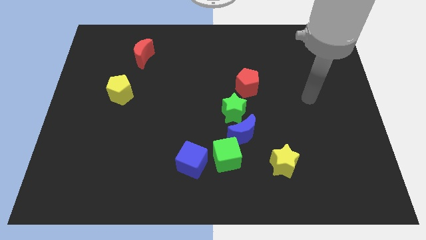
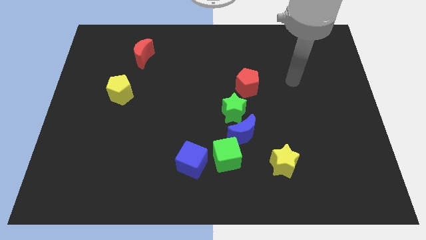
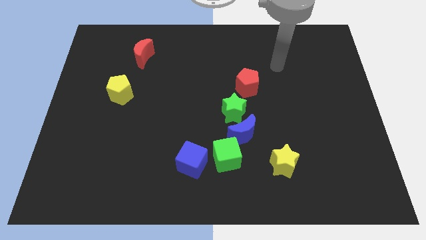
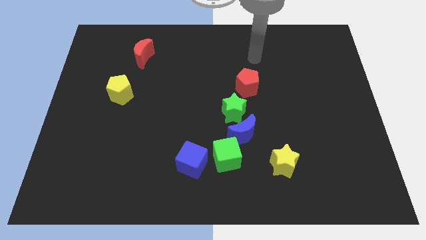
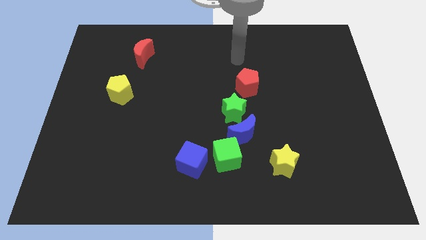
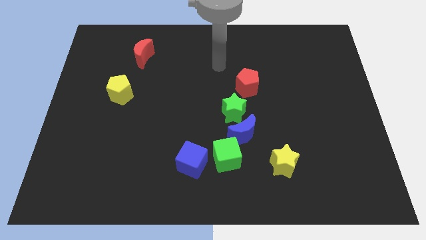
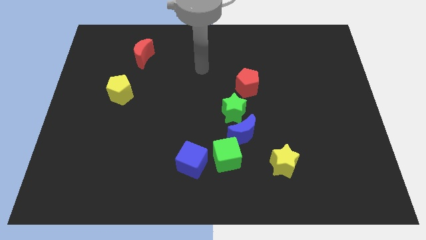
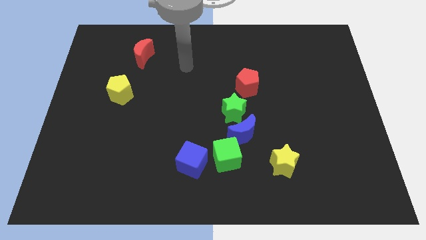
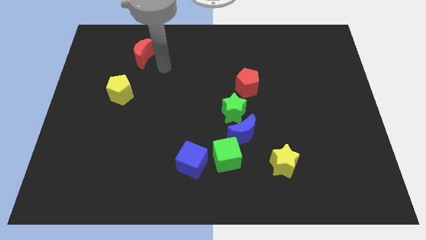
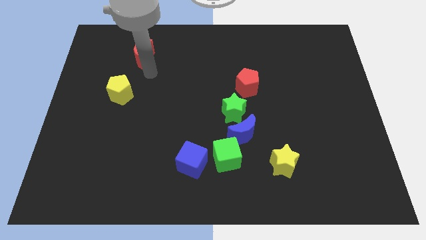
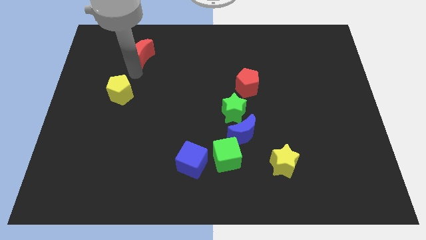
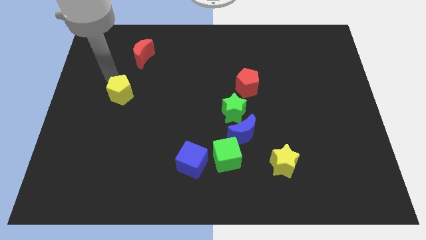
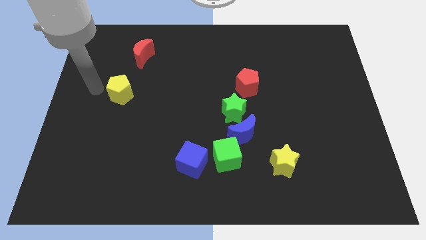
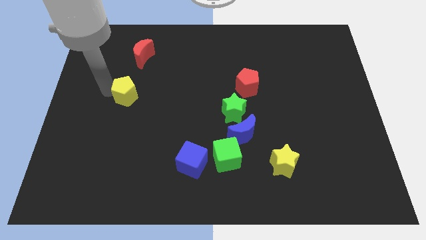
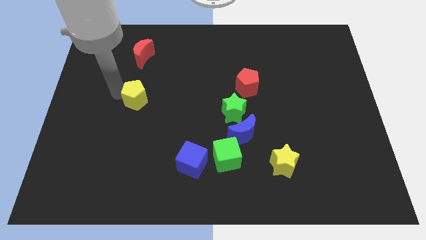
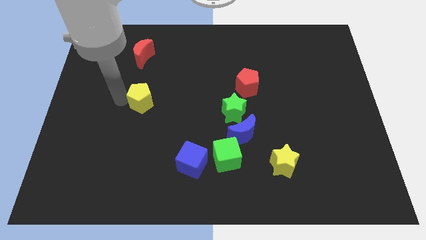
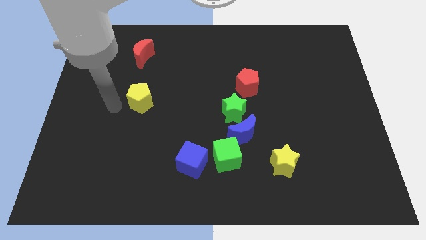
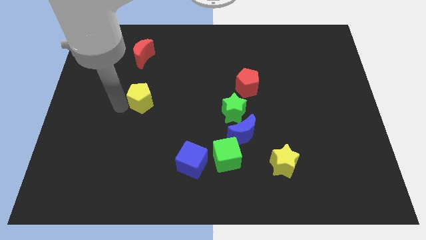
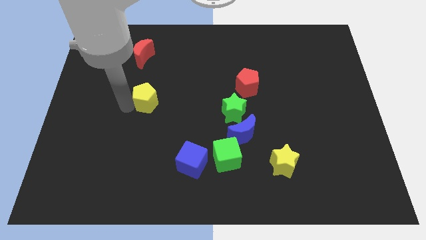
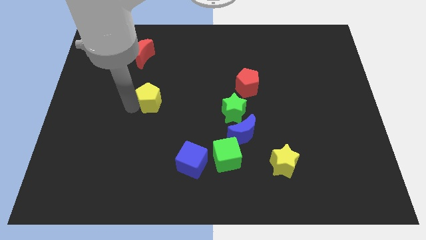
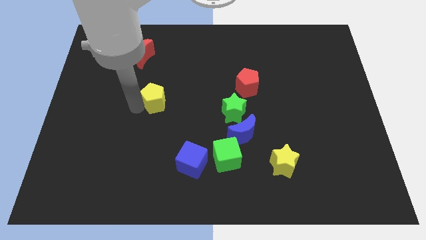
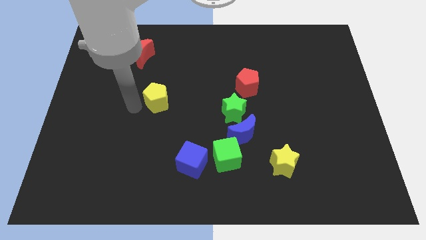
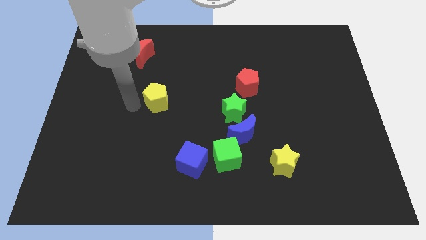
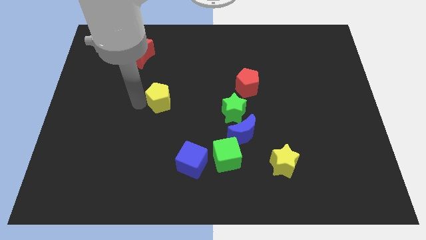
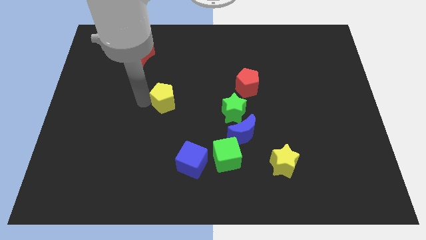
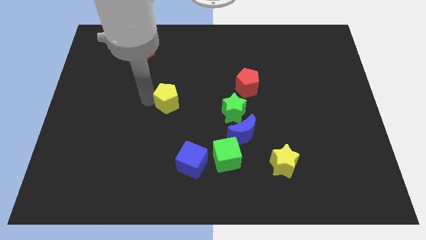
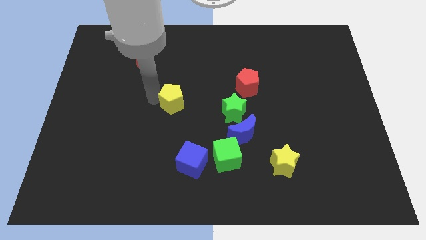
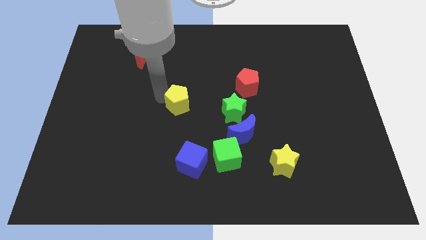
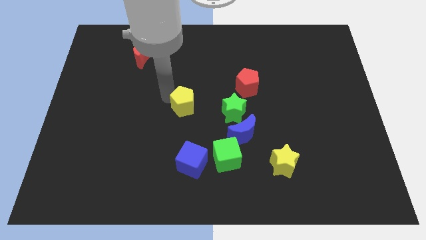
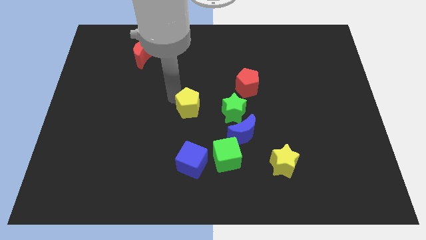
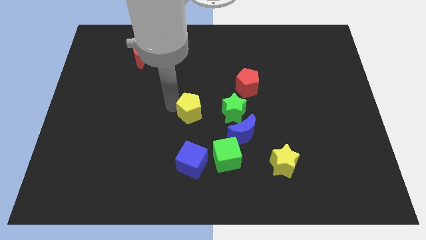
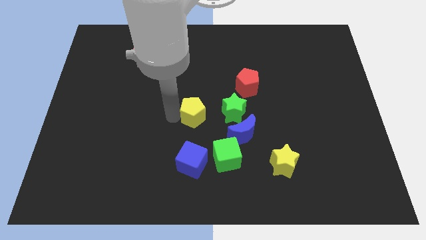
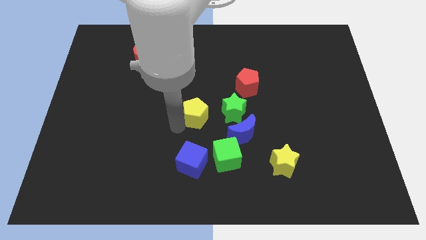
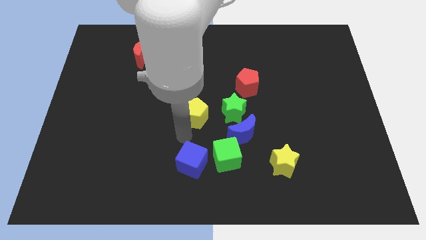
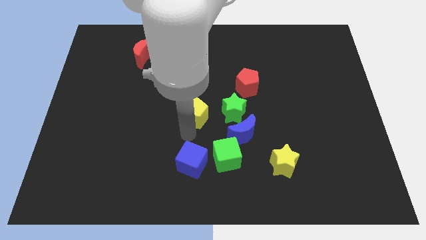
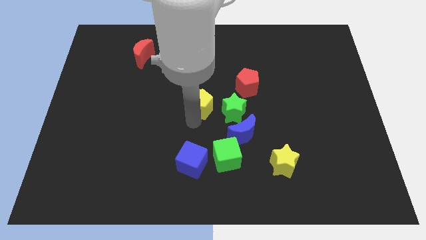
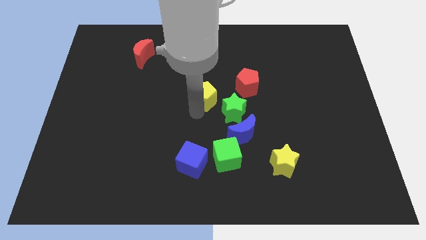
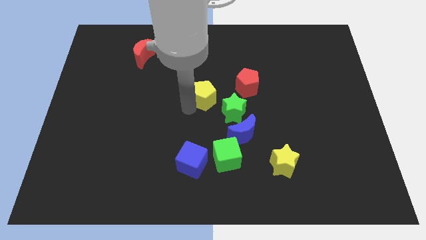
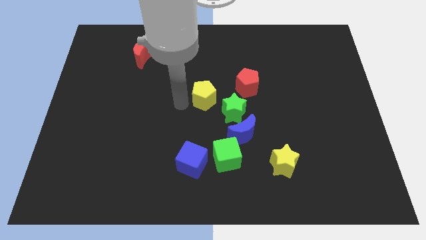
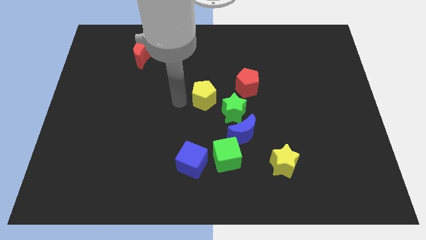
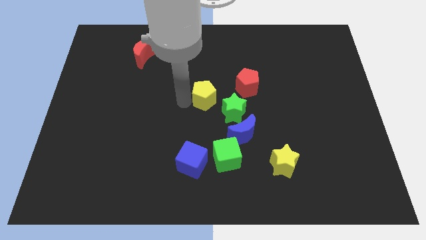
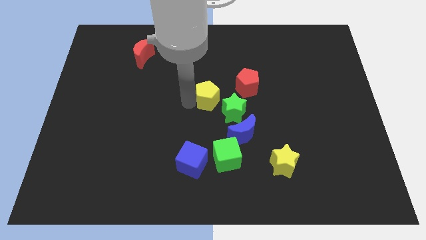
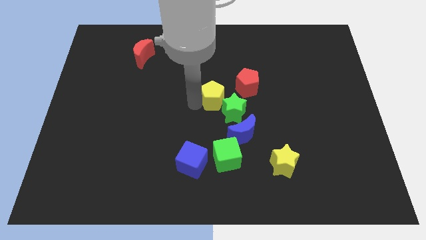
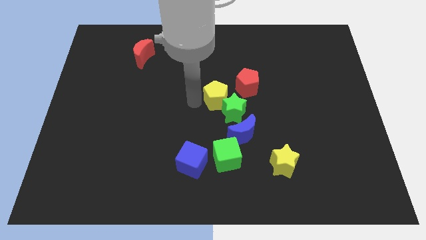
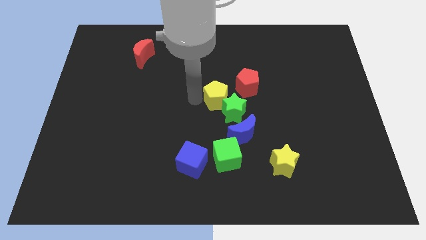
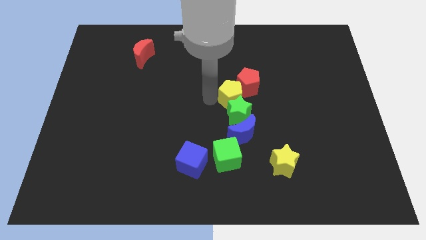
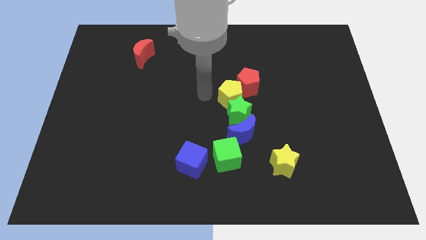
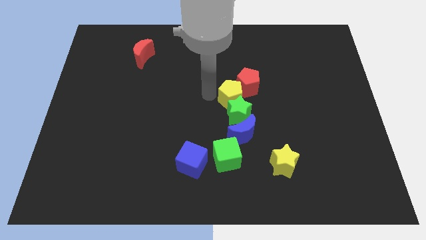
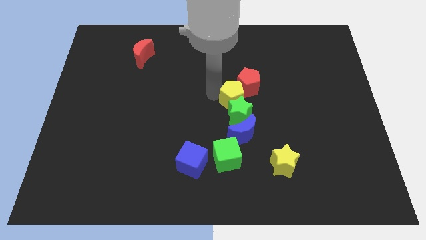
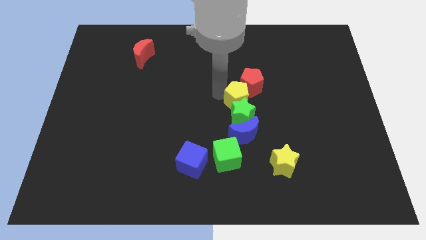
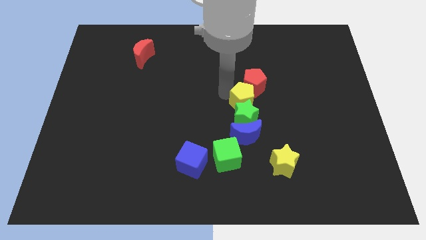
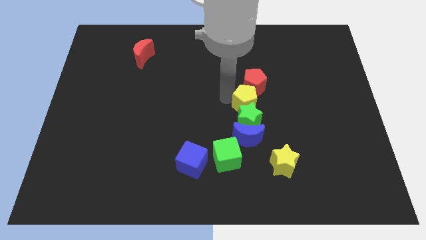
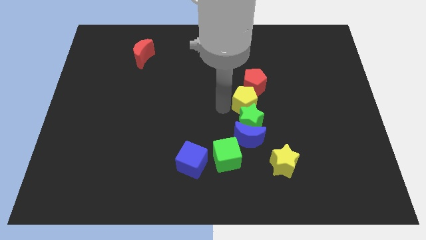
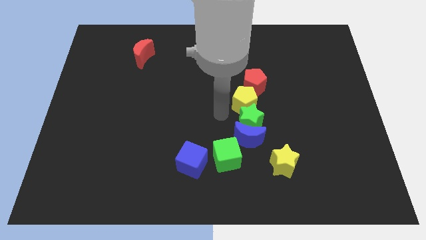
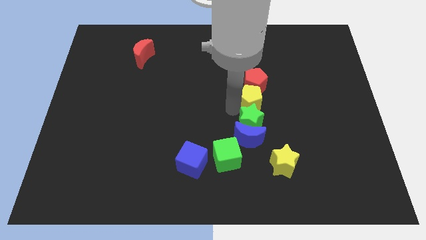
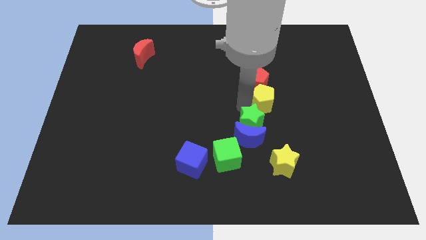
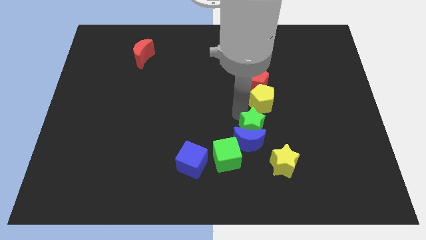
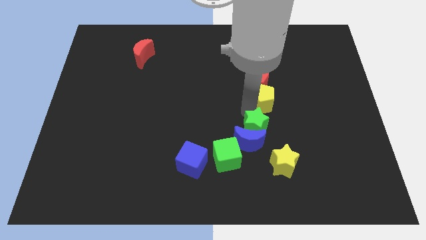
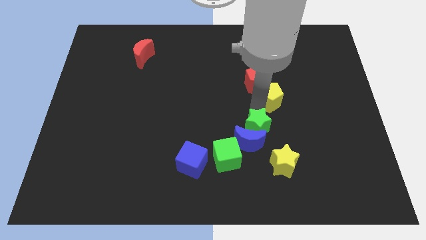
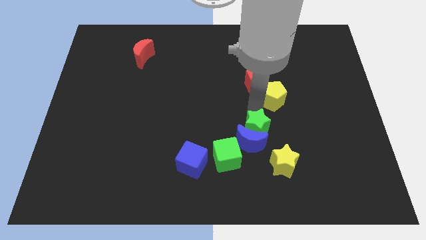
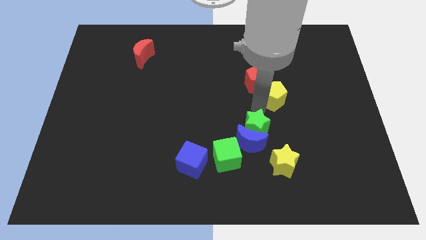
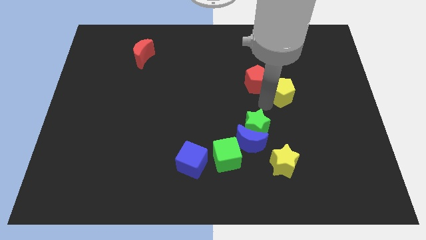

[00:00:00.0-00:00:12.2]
put the yellow pentagon right of the red pentagon

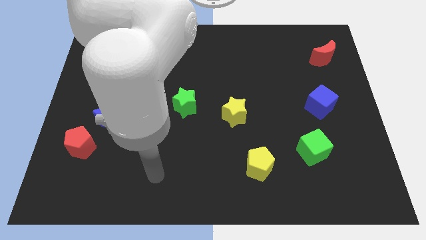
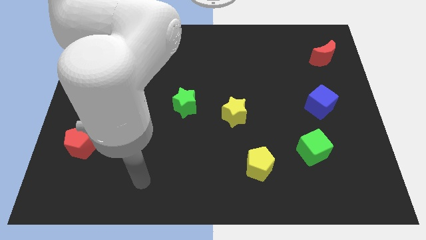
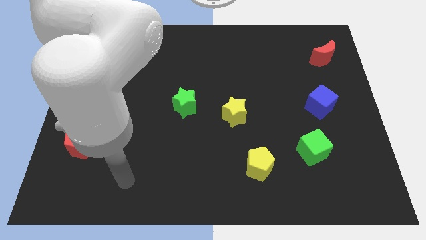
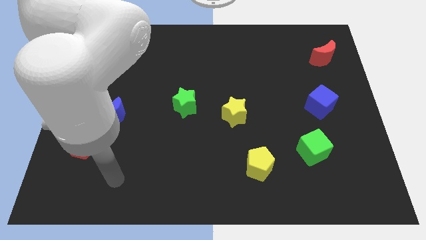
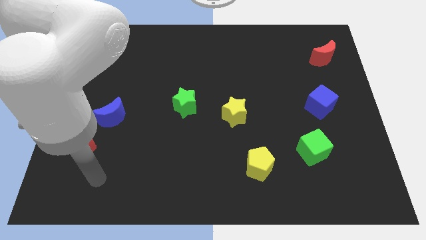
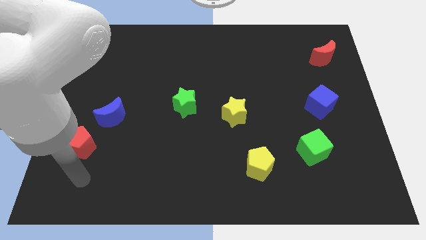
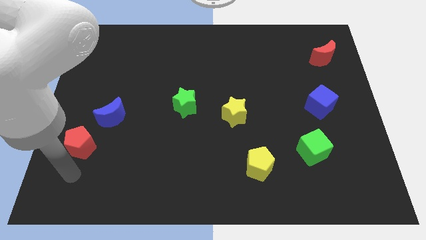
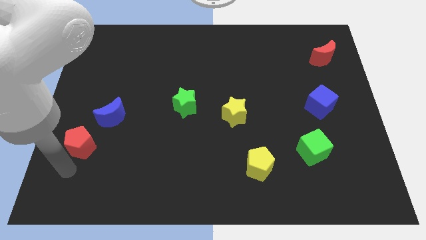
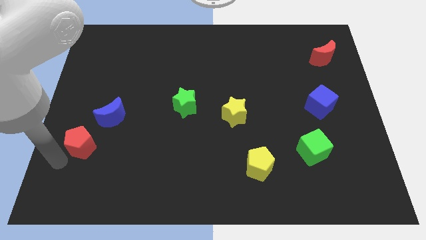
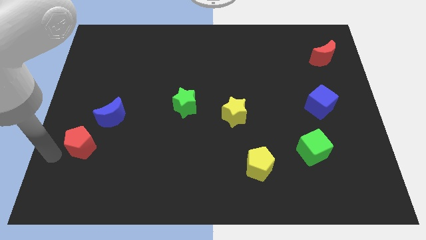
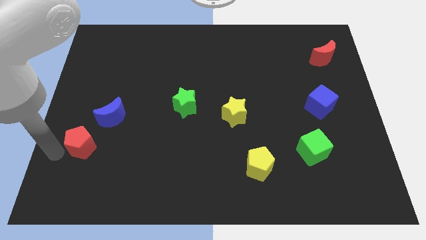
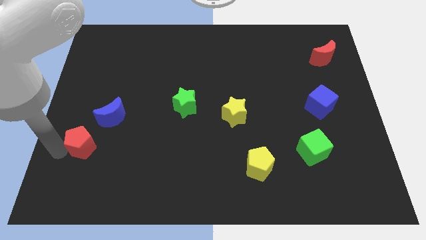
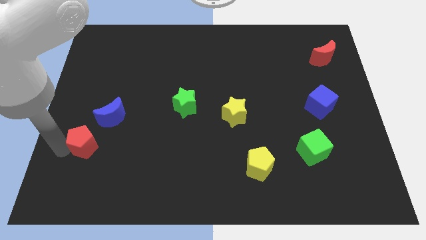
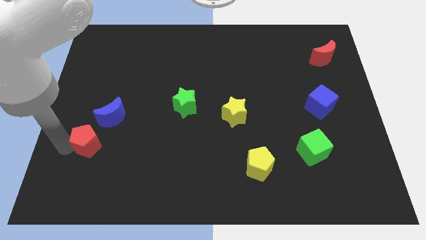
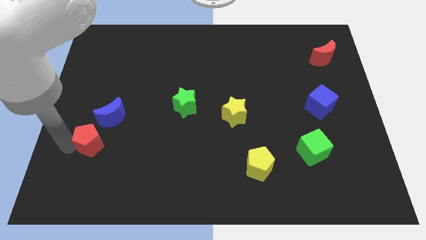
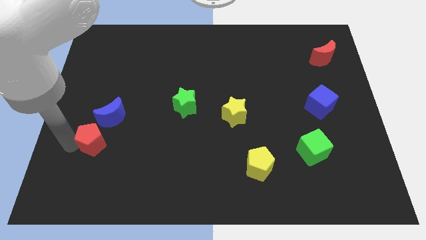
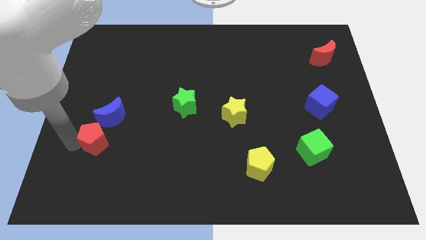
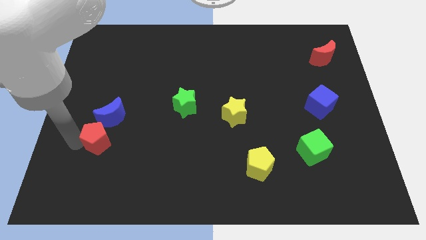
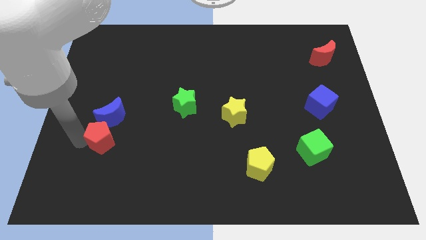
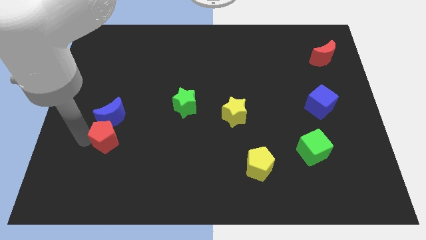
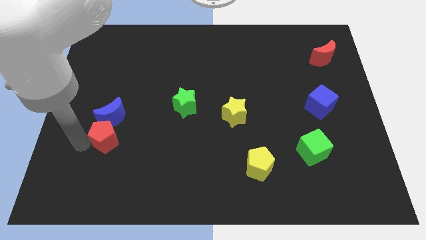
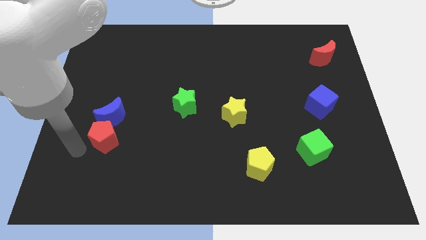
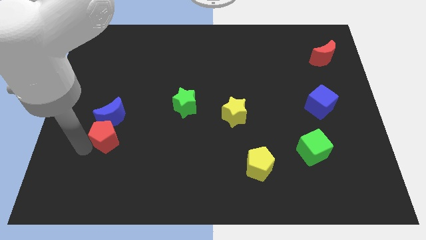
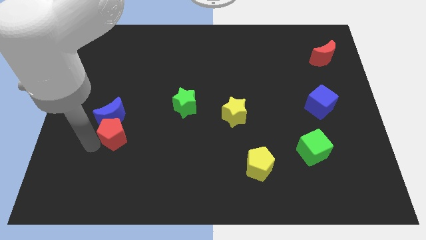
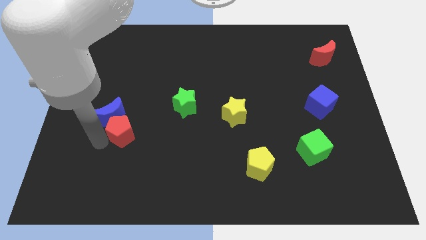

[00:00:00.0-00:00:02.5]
move the red pentagon to the right of the blue moon
